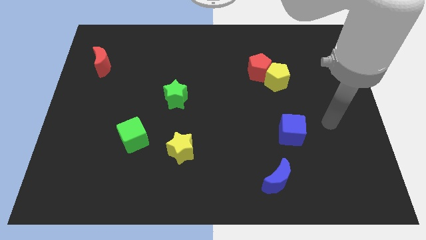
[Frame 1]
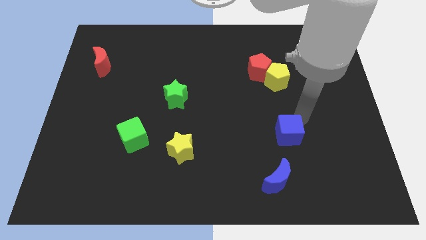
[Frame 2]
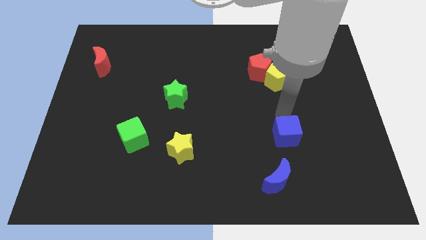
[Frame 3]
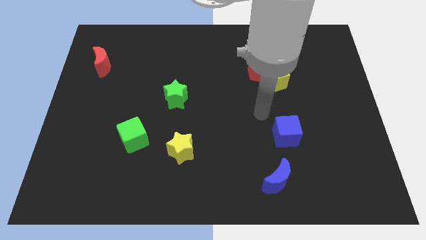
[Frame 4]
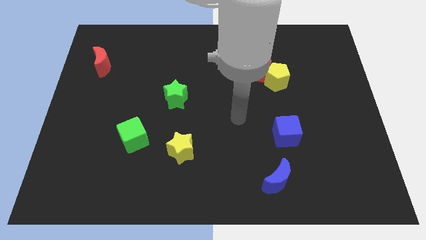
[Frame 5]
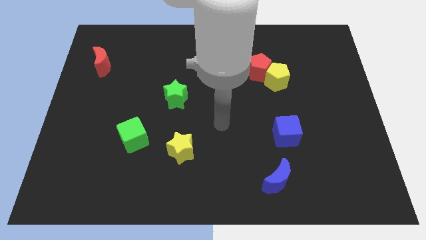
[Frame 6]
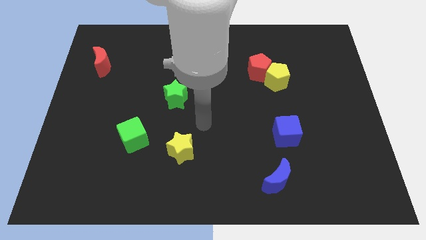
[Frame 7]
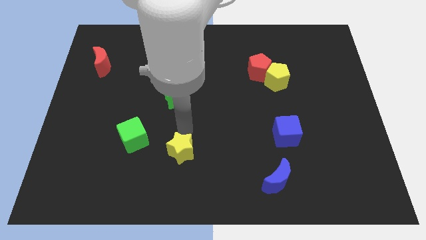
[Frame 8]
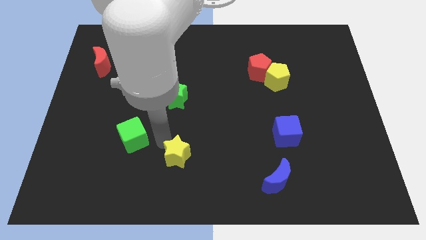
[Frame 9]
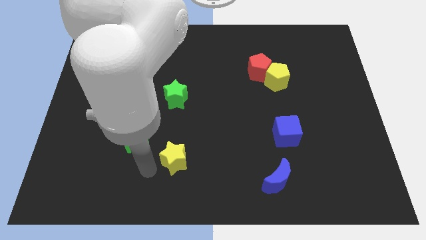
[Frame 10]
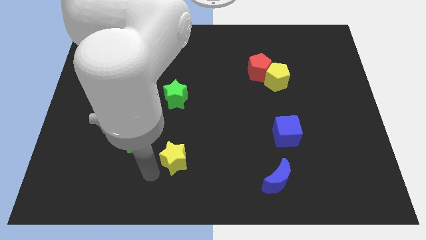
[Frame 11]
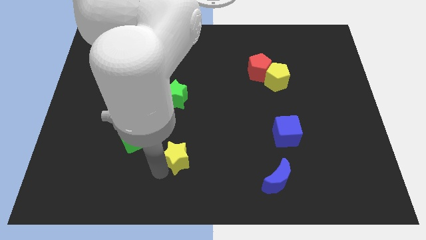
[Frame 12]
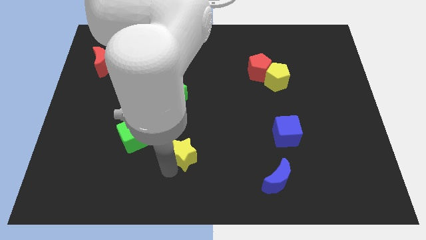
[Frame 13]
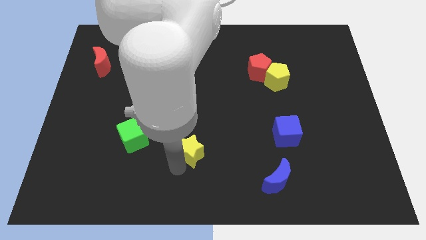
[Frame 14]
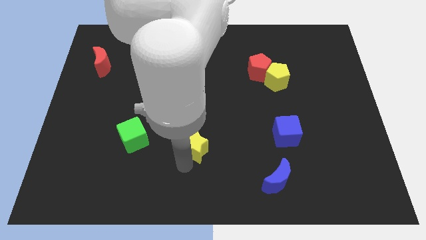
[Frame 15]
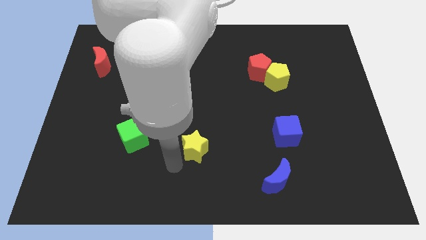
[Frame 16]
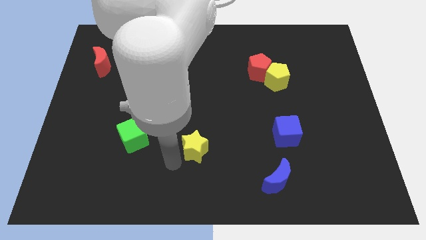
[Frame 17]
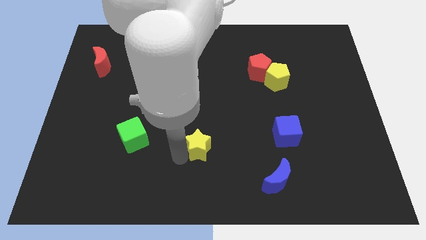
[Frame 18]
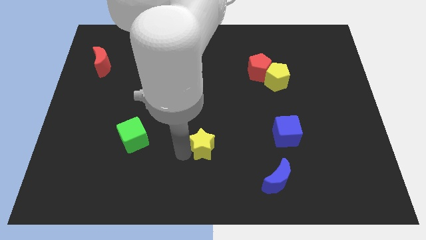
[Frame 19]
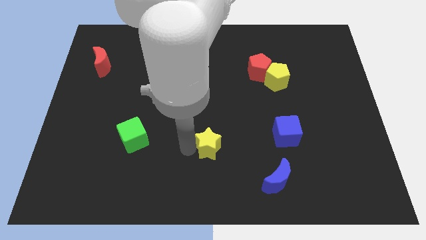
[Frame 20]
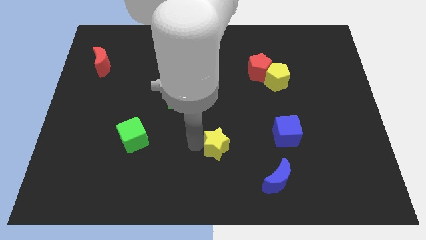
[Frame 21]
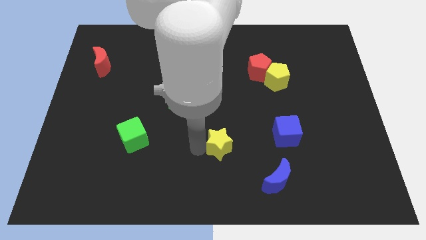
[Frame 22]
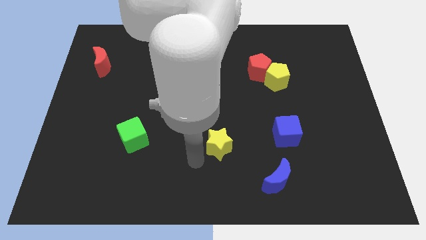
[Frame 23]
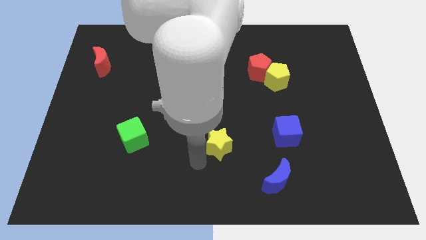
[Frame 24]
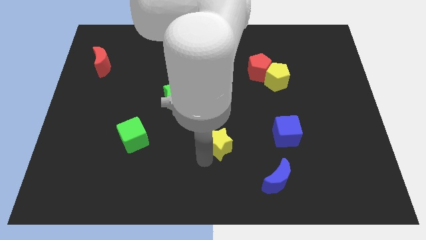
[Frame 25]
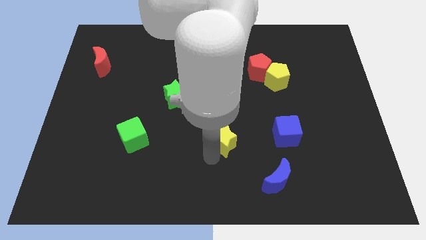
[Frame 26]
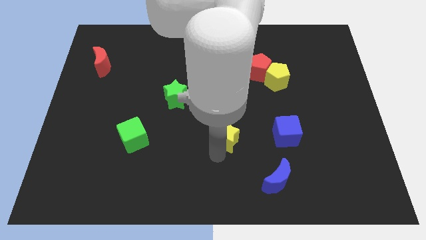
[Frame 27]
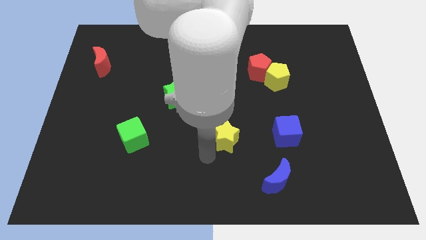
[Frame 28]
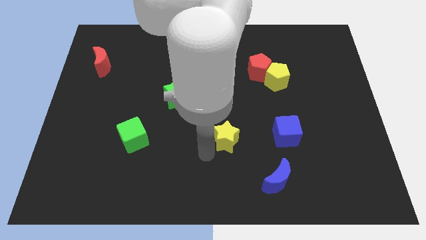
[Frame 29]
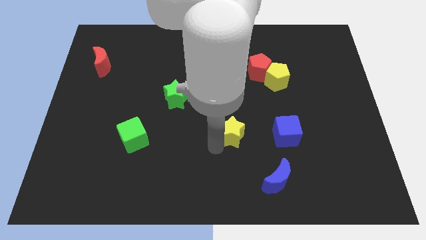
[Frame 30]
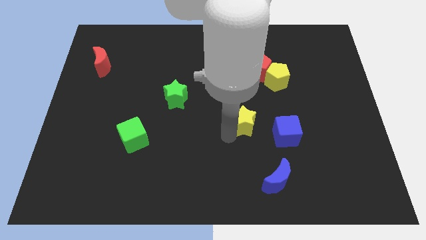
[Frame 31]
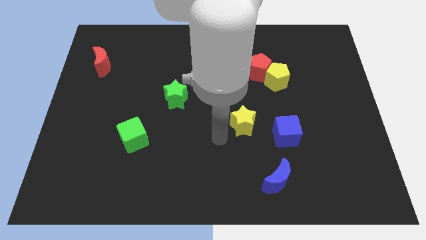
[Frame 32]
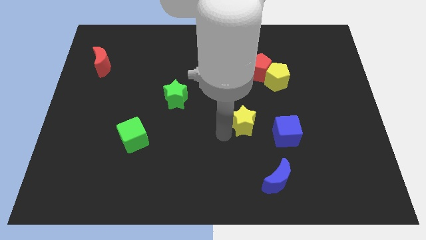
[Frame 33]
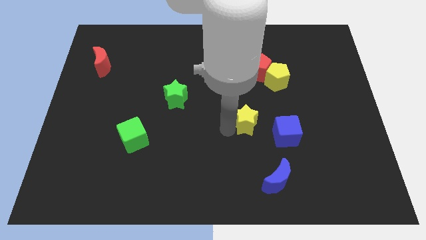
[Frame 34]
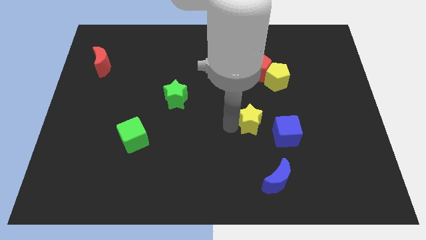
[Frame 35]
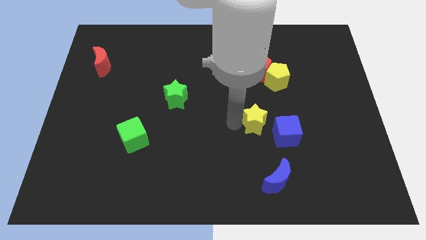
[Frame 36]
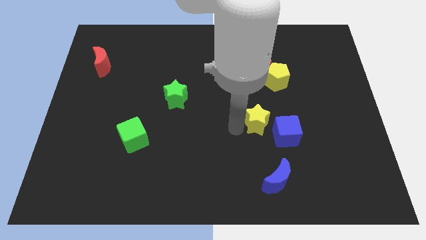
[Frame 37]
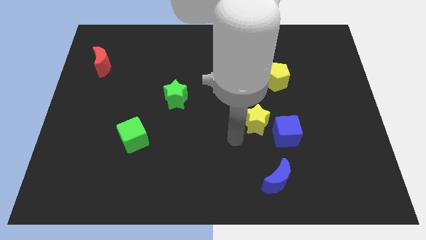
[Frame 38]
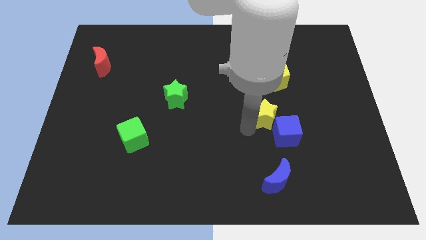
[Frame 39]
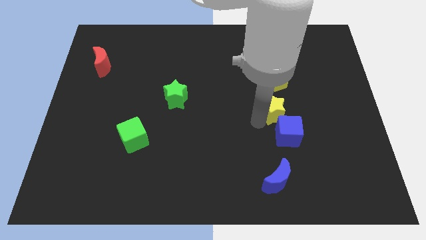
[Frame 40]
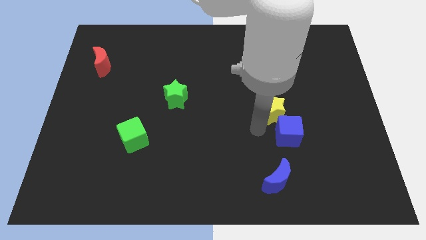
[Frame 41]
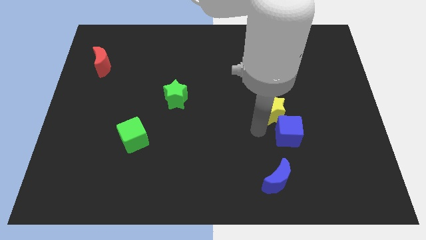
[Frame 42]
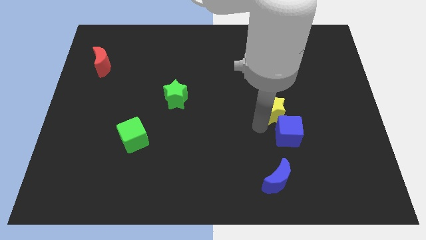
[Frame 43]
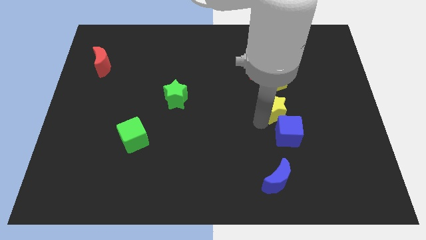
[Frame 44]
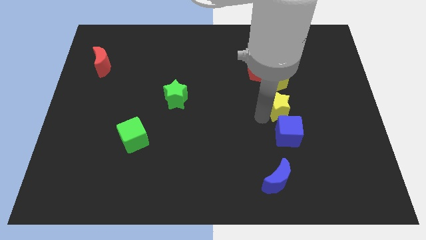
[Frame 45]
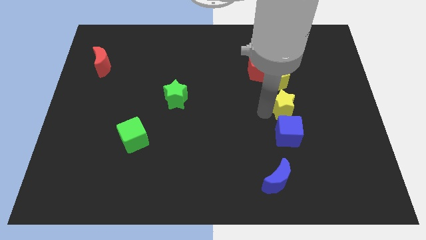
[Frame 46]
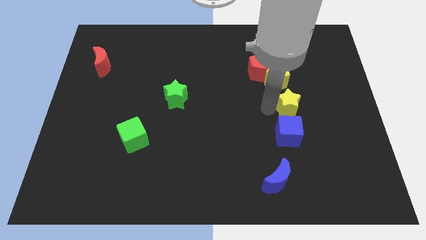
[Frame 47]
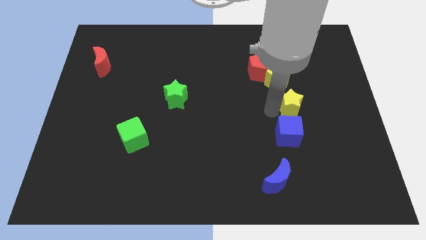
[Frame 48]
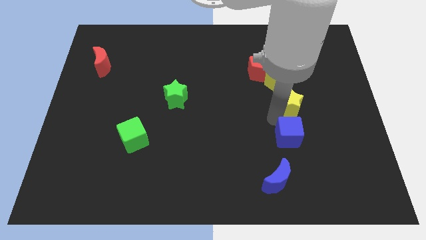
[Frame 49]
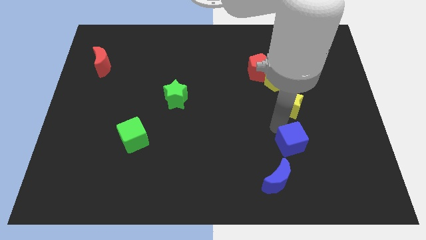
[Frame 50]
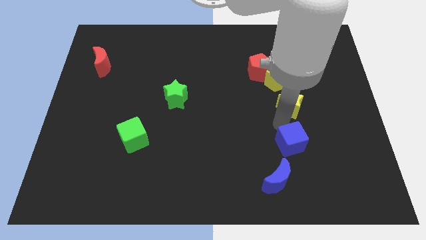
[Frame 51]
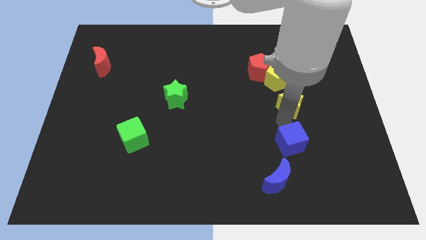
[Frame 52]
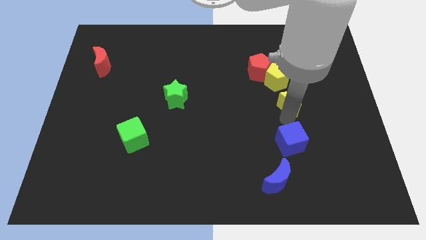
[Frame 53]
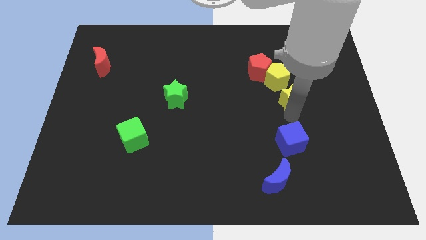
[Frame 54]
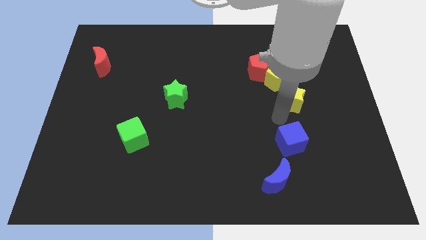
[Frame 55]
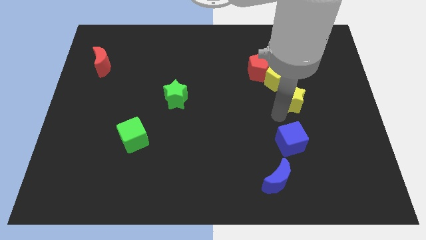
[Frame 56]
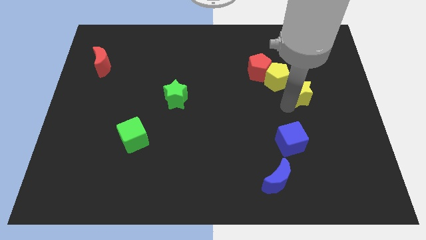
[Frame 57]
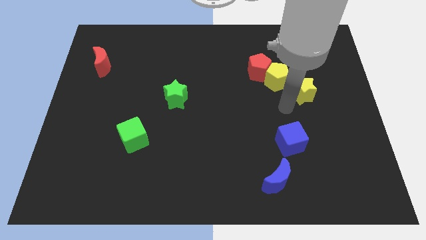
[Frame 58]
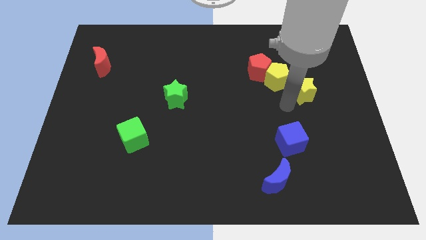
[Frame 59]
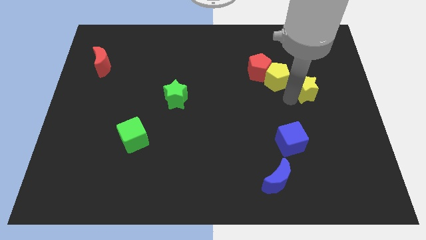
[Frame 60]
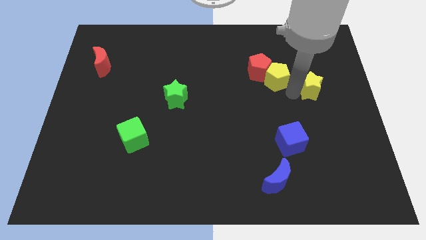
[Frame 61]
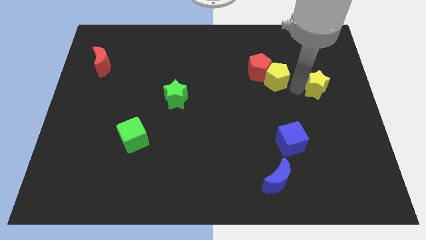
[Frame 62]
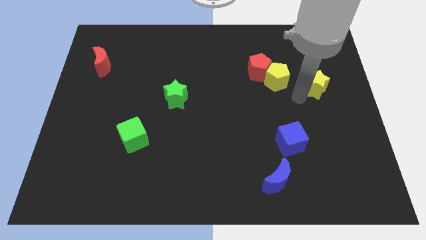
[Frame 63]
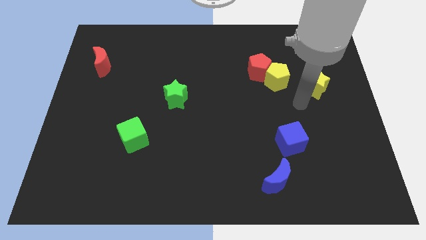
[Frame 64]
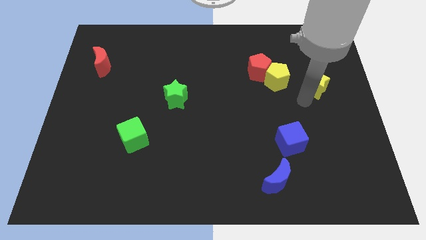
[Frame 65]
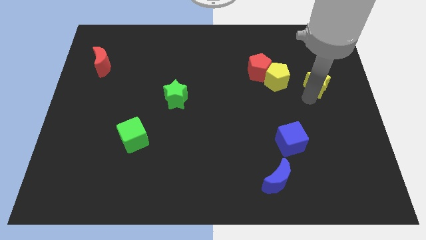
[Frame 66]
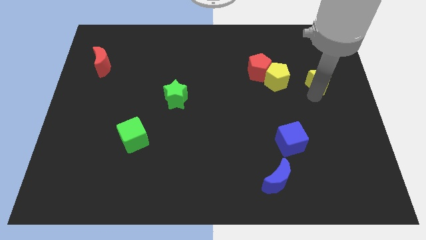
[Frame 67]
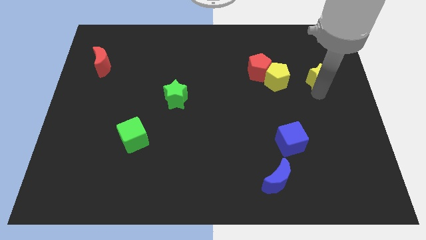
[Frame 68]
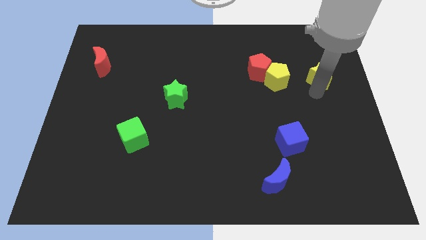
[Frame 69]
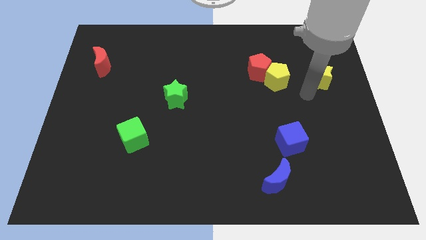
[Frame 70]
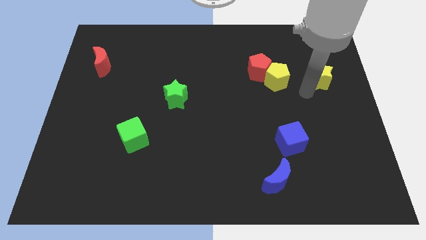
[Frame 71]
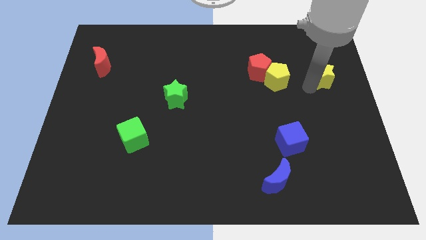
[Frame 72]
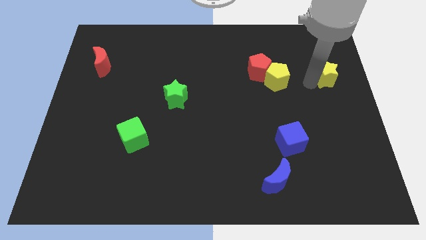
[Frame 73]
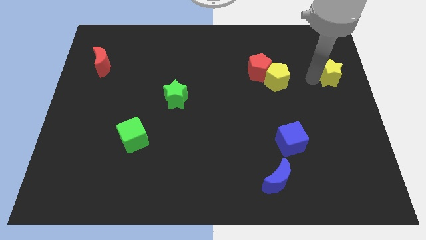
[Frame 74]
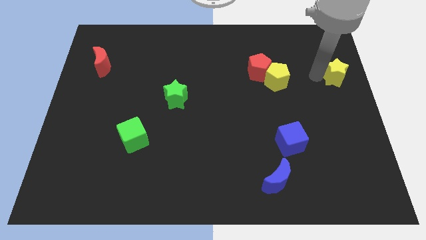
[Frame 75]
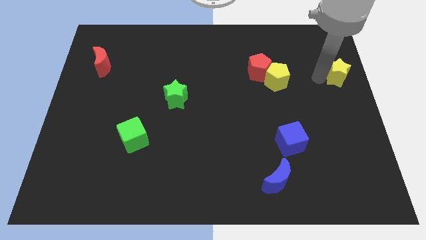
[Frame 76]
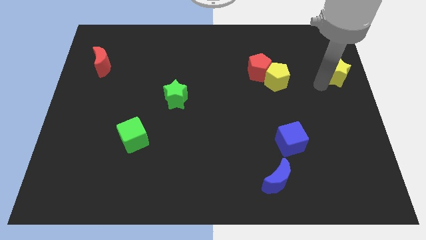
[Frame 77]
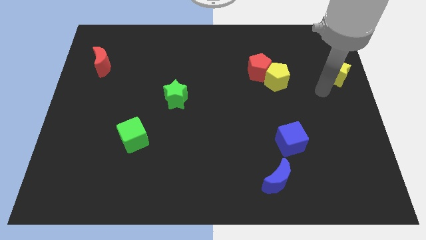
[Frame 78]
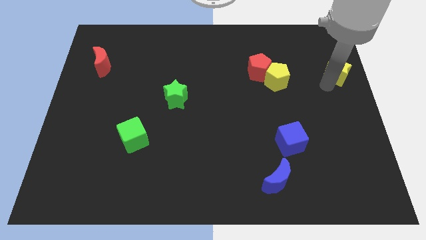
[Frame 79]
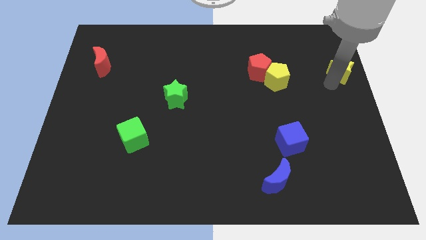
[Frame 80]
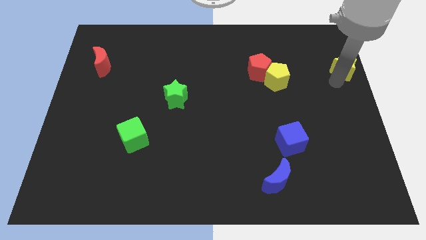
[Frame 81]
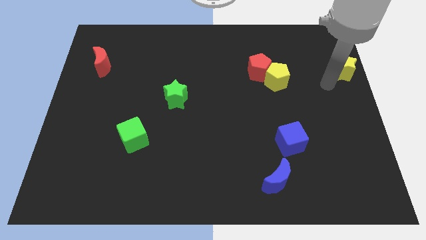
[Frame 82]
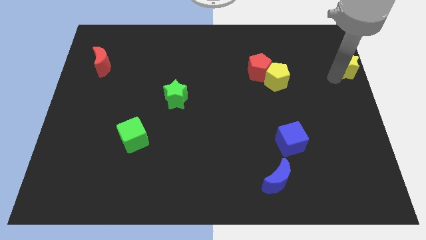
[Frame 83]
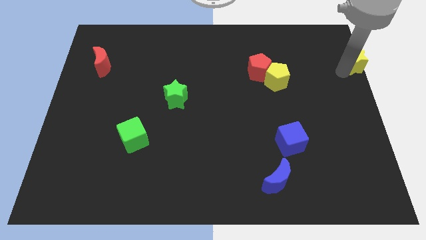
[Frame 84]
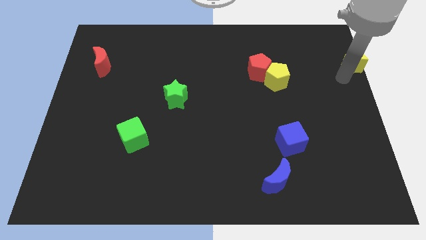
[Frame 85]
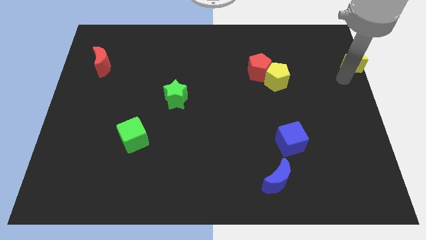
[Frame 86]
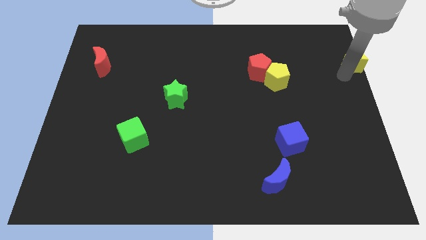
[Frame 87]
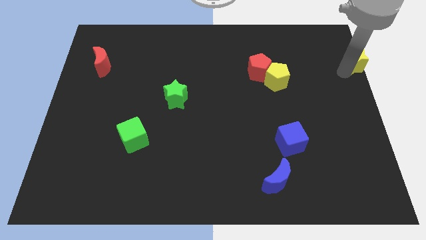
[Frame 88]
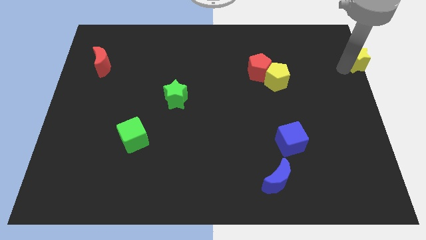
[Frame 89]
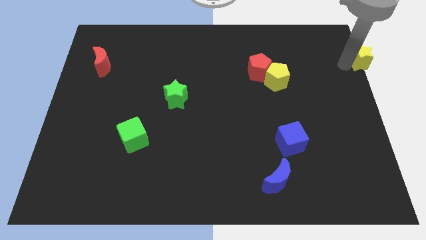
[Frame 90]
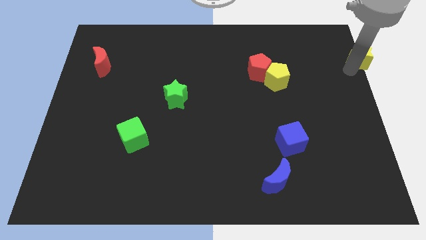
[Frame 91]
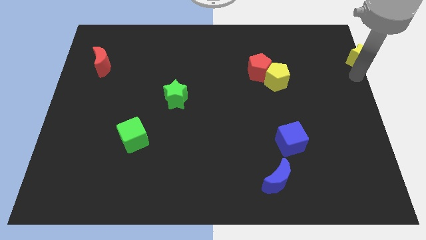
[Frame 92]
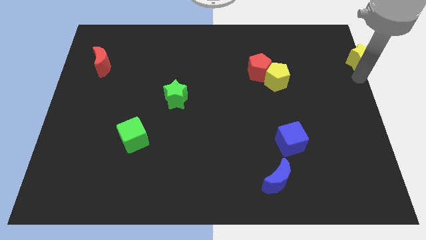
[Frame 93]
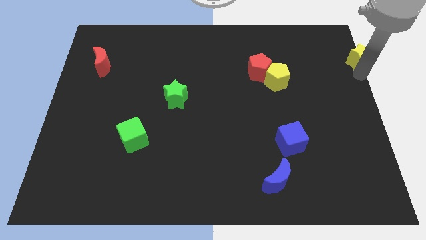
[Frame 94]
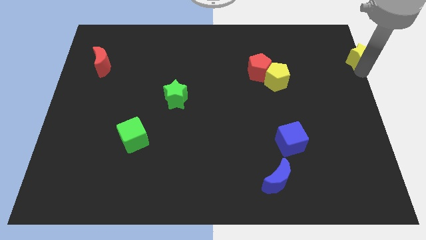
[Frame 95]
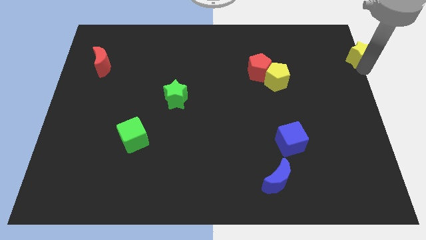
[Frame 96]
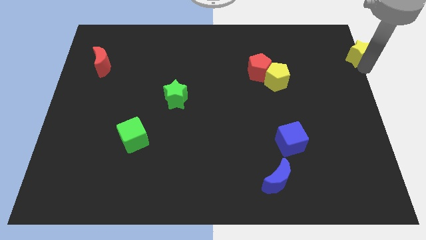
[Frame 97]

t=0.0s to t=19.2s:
put the yellow star to the top right of the board
